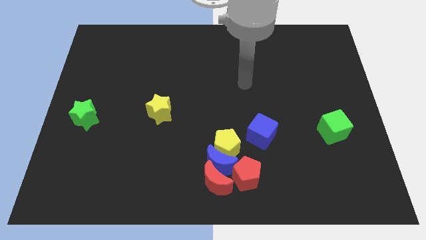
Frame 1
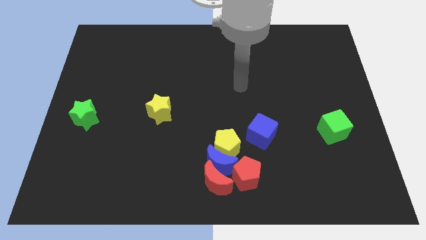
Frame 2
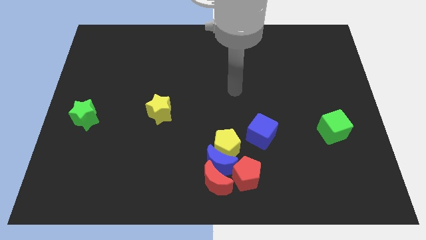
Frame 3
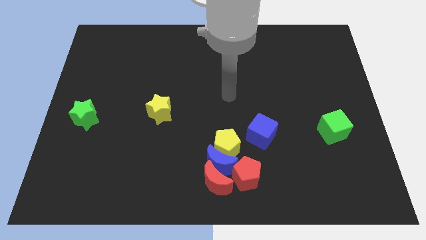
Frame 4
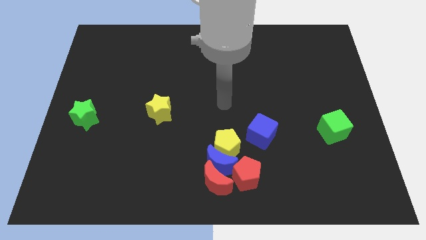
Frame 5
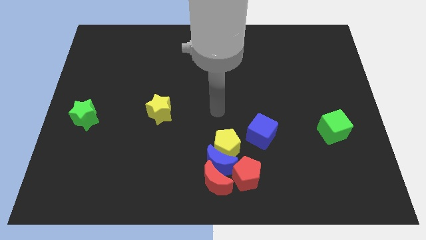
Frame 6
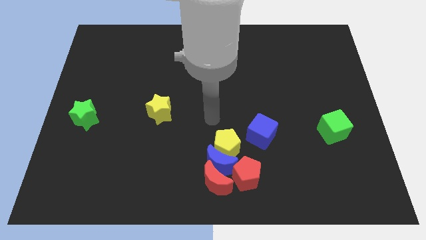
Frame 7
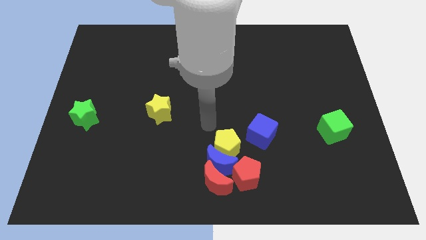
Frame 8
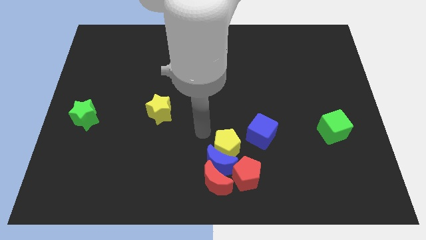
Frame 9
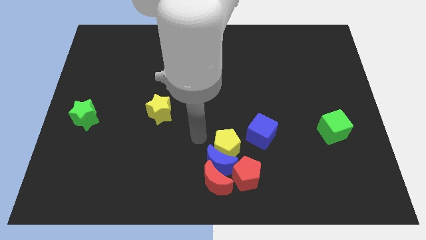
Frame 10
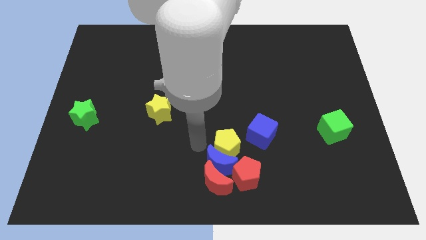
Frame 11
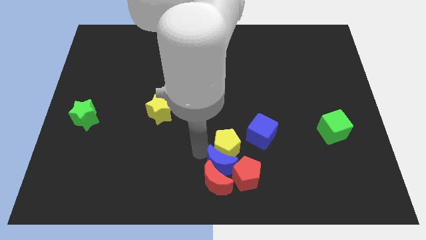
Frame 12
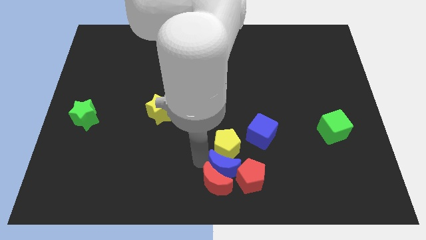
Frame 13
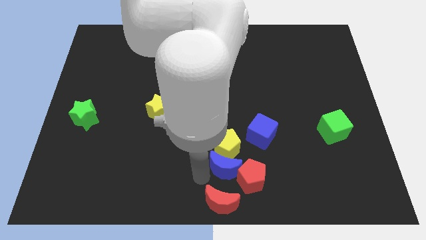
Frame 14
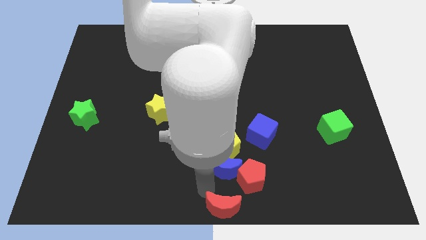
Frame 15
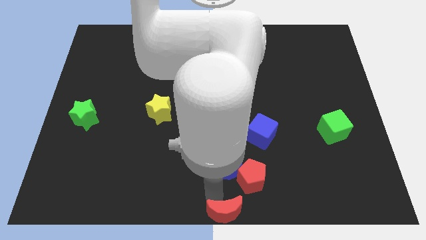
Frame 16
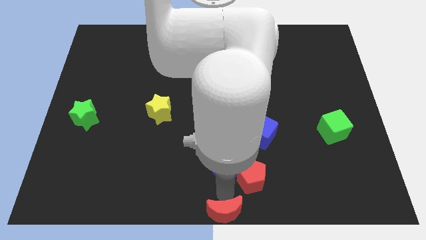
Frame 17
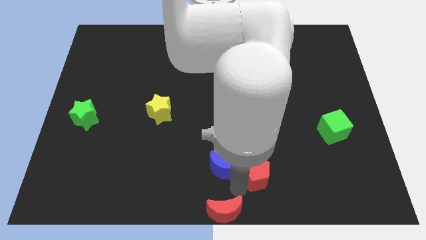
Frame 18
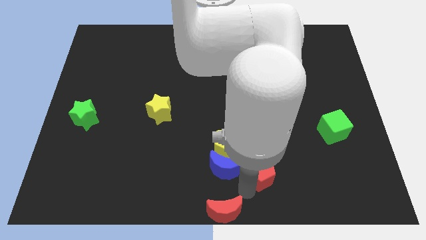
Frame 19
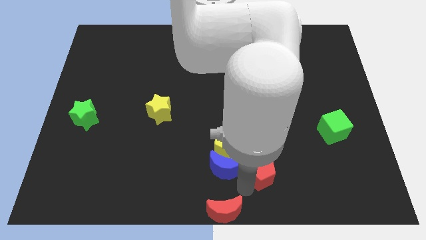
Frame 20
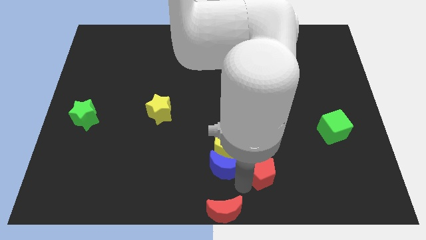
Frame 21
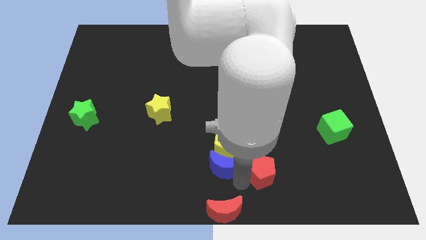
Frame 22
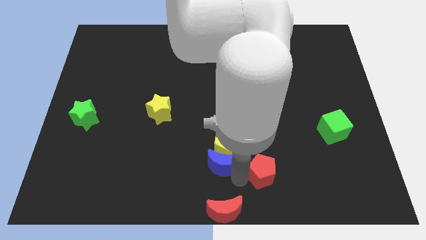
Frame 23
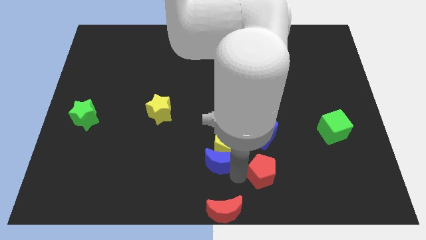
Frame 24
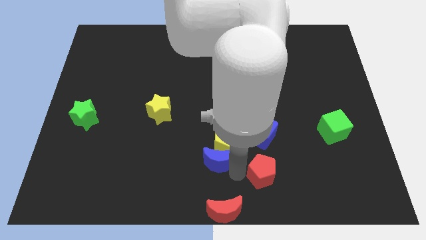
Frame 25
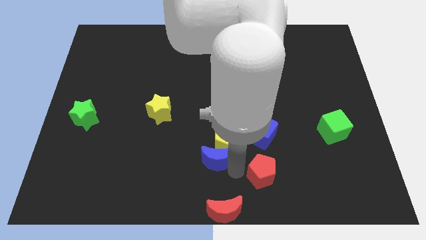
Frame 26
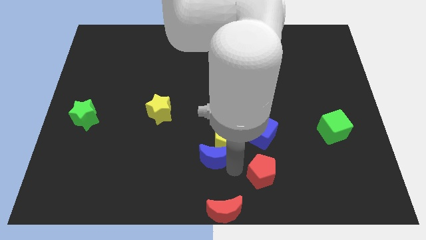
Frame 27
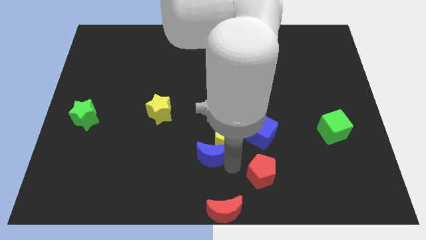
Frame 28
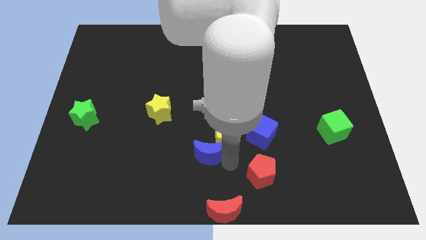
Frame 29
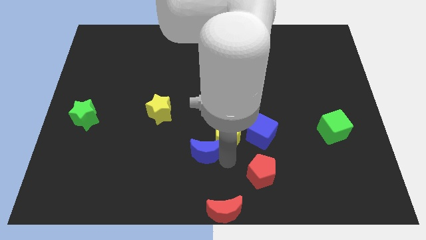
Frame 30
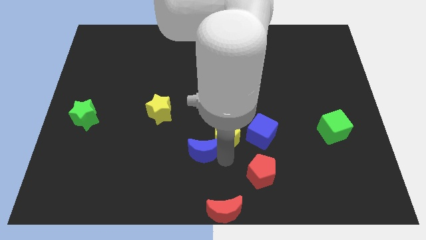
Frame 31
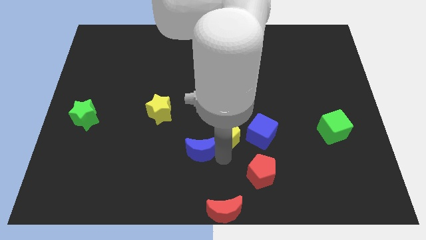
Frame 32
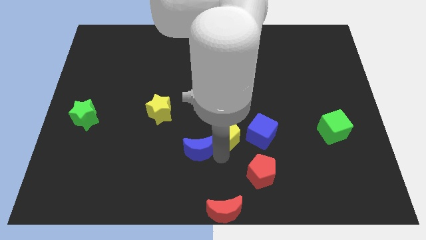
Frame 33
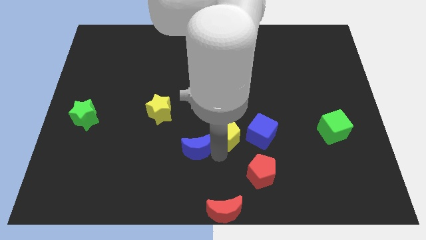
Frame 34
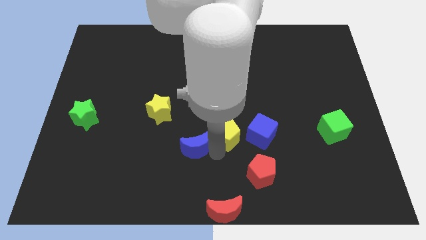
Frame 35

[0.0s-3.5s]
pull the blue moon apart from the group of blocks

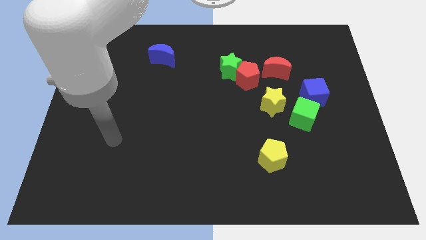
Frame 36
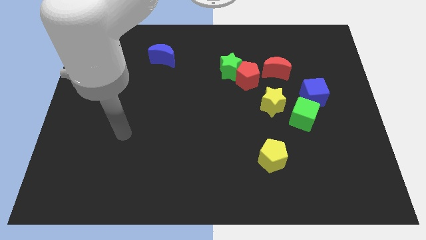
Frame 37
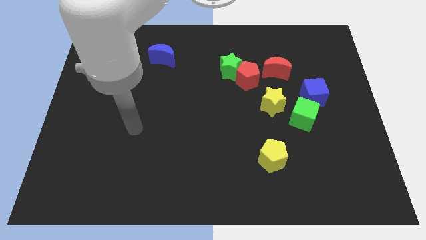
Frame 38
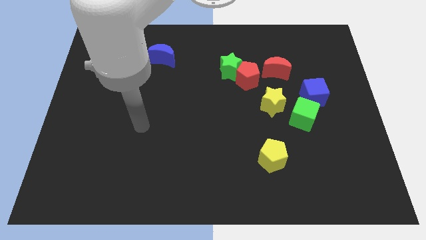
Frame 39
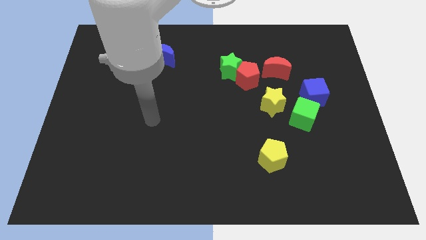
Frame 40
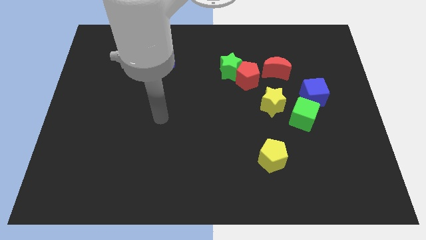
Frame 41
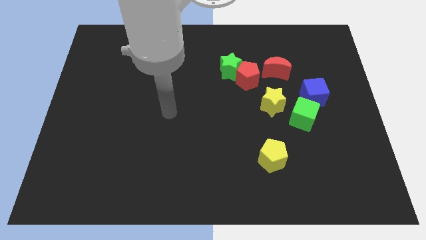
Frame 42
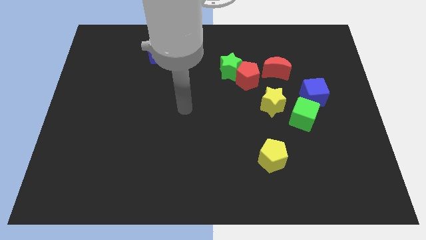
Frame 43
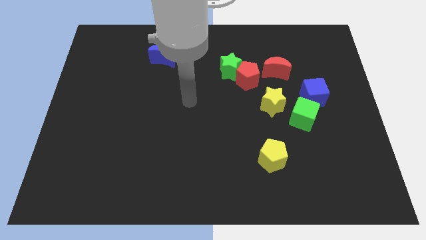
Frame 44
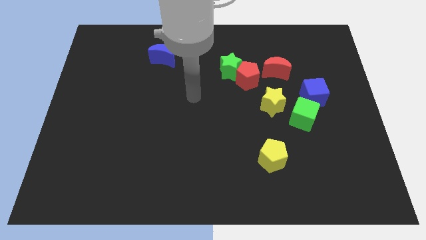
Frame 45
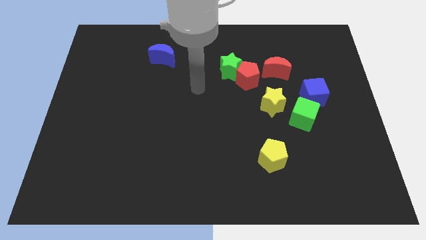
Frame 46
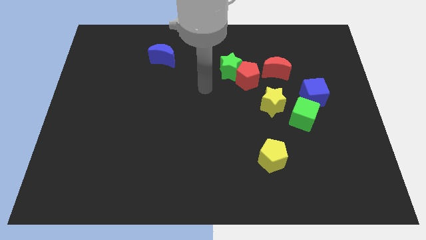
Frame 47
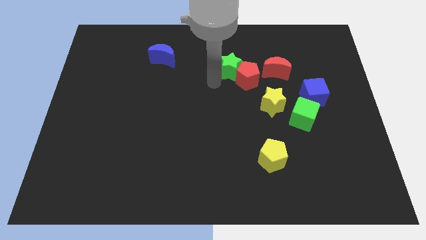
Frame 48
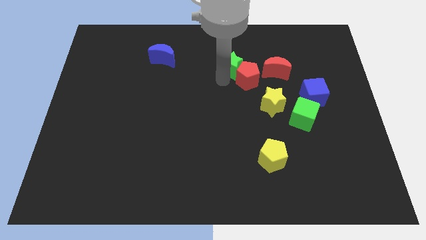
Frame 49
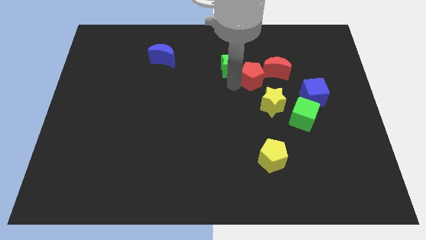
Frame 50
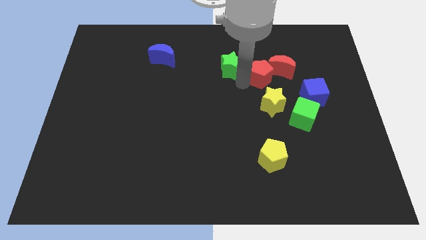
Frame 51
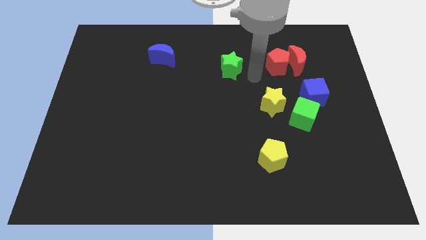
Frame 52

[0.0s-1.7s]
pull the green star apart from the red pentagon

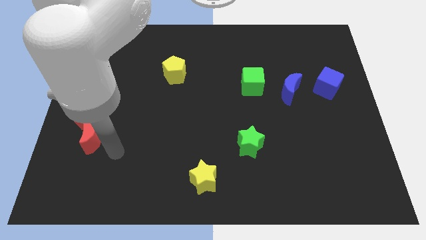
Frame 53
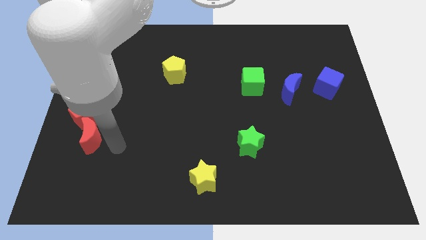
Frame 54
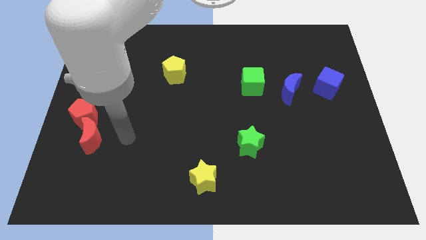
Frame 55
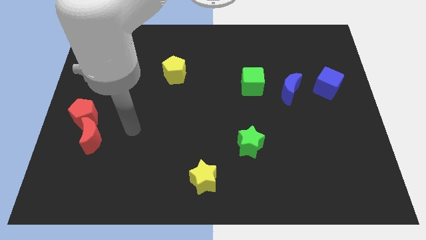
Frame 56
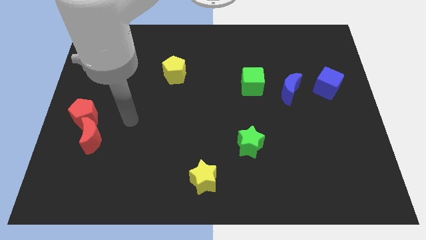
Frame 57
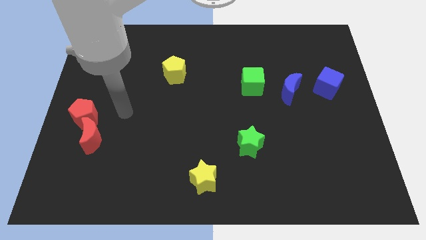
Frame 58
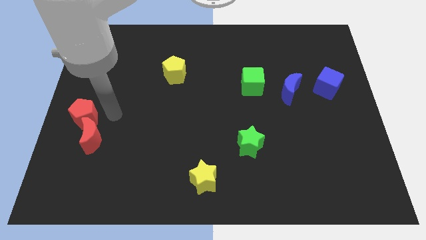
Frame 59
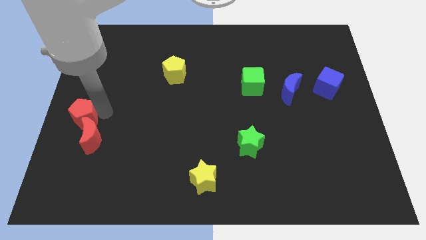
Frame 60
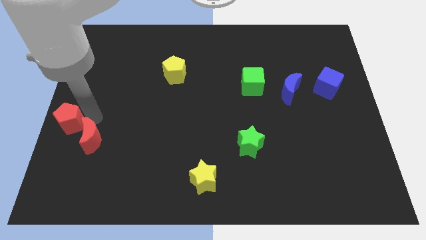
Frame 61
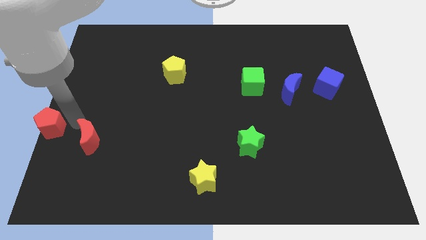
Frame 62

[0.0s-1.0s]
separate the red moon from the red pentagon

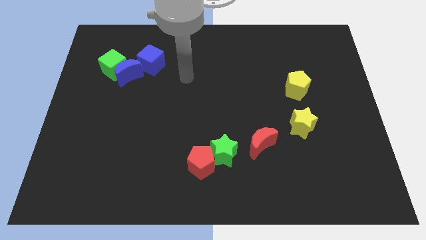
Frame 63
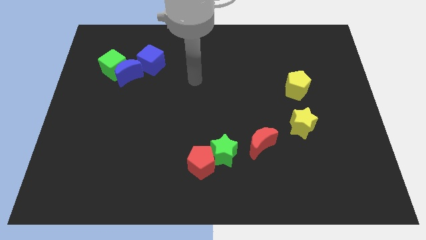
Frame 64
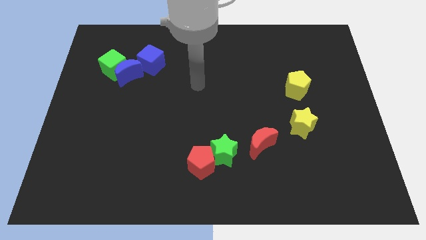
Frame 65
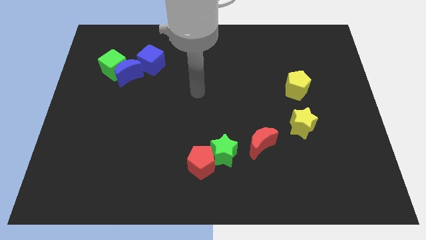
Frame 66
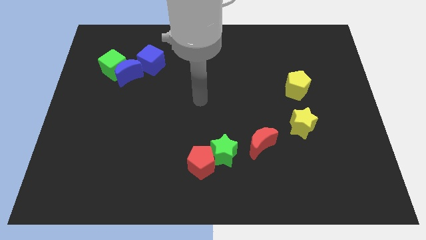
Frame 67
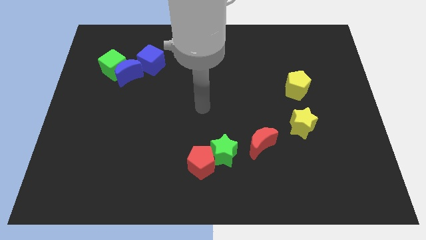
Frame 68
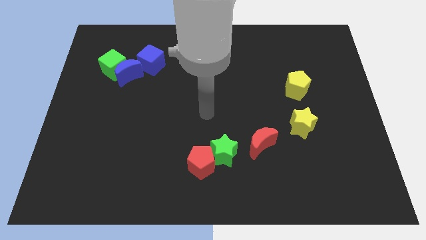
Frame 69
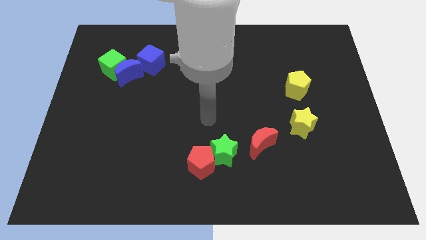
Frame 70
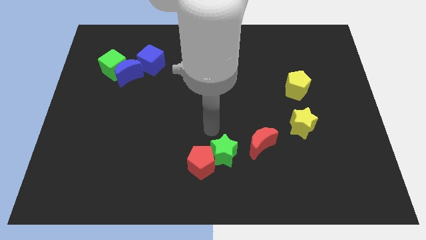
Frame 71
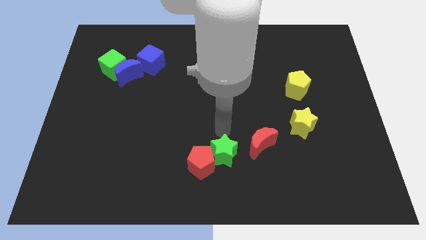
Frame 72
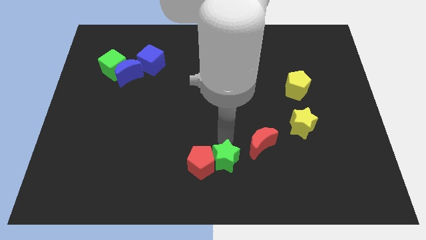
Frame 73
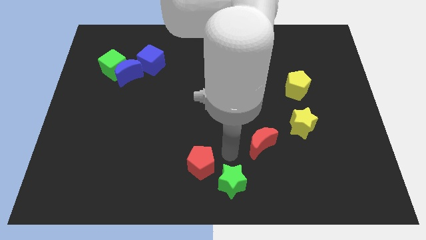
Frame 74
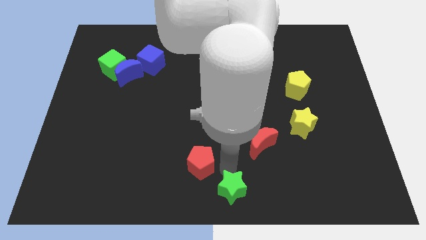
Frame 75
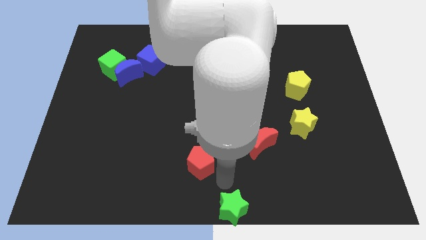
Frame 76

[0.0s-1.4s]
move the red pentagon away from the green star

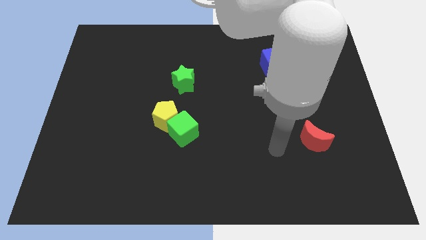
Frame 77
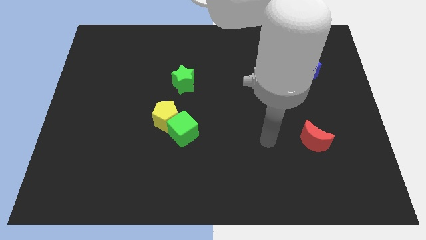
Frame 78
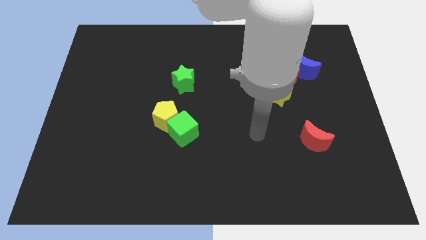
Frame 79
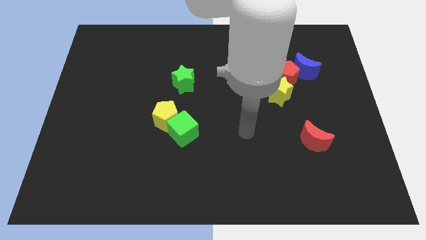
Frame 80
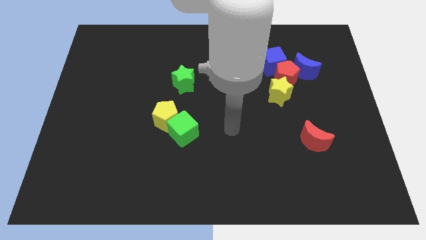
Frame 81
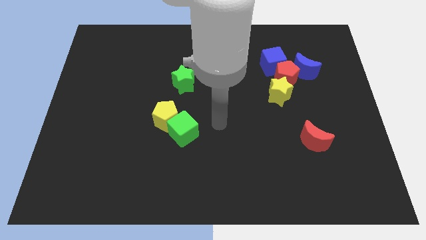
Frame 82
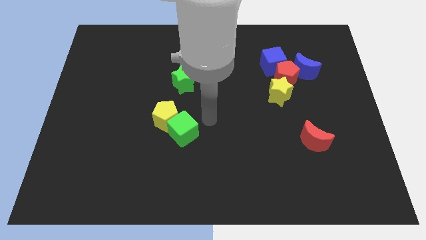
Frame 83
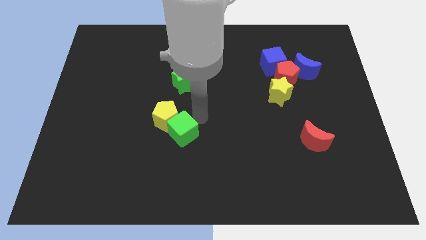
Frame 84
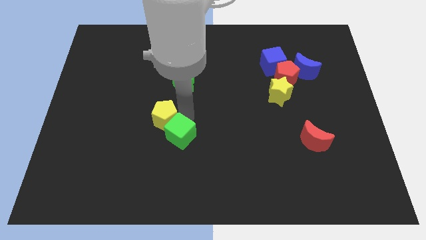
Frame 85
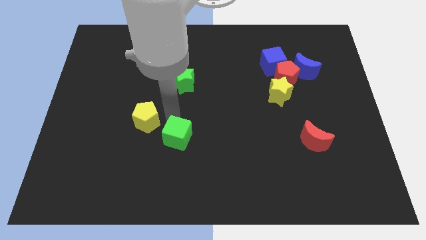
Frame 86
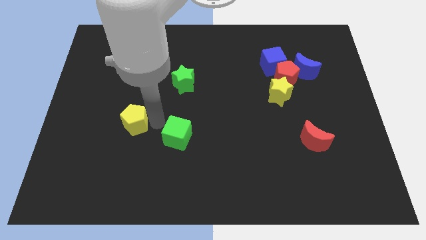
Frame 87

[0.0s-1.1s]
separate the green cube from the yellow pentagon

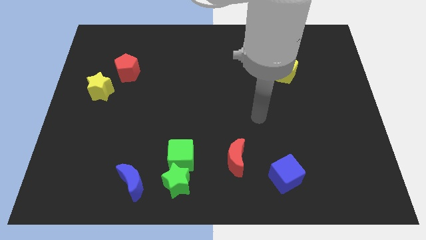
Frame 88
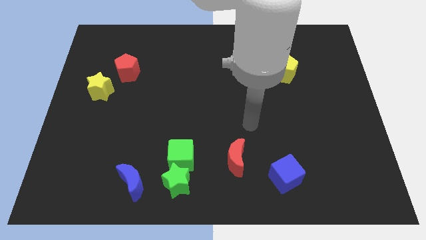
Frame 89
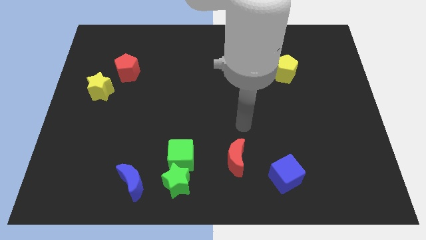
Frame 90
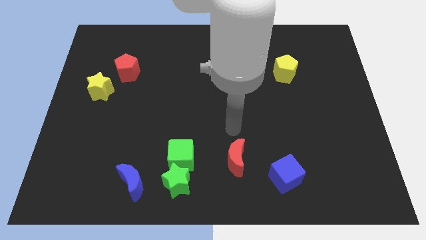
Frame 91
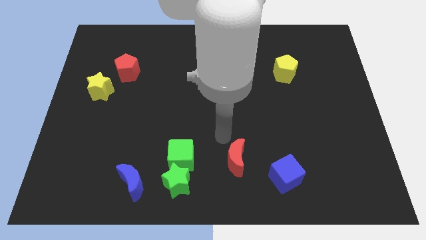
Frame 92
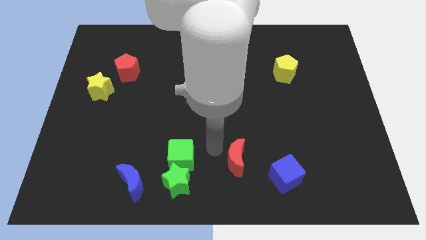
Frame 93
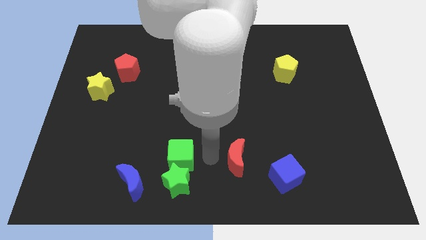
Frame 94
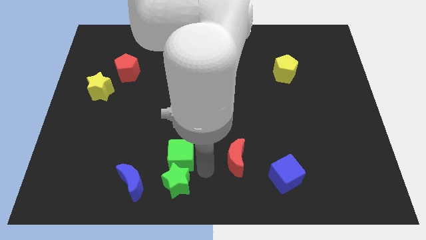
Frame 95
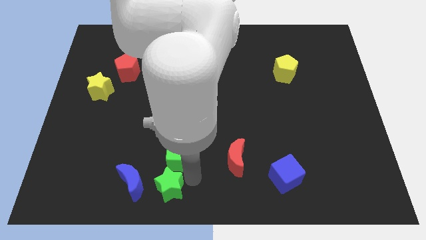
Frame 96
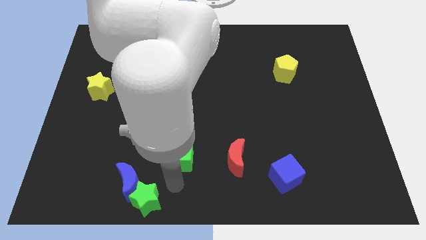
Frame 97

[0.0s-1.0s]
separate the green cube from the green star
